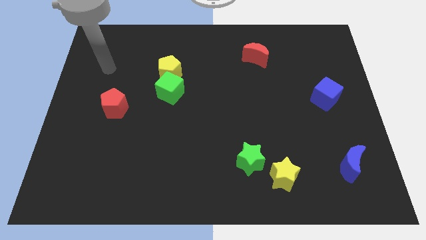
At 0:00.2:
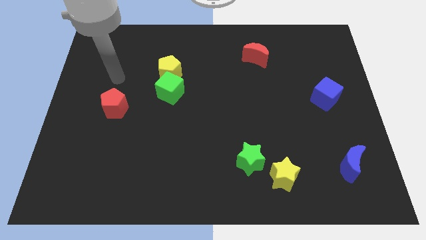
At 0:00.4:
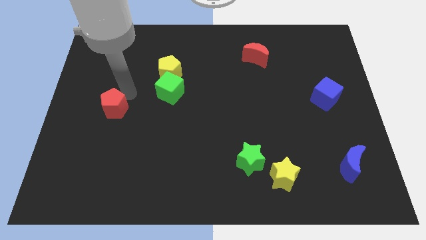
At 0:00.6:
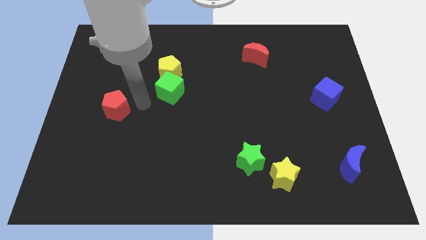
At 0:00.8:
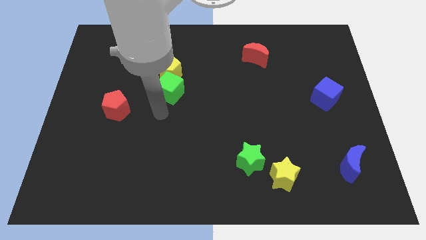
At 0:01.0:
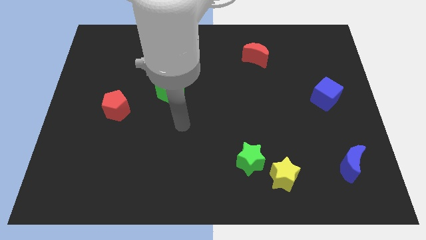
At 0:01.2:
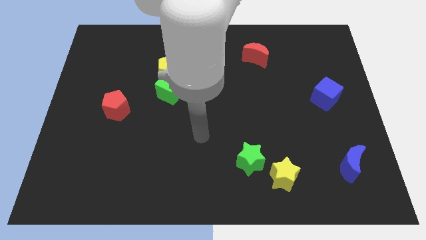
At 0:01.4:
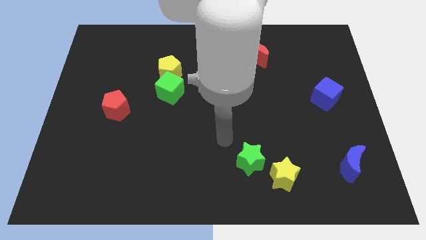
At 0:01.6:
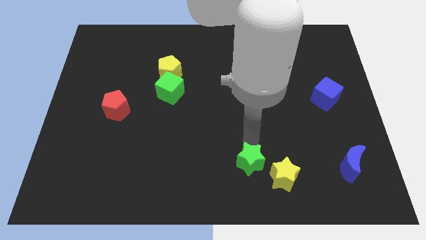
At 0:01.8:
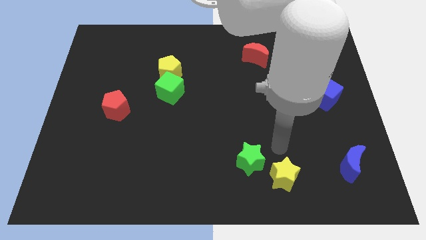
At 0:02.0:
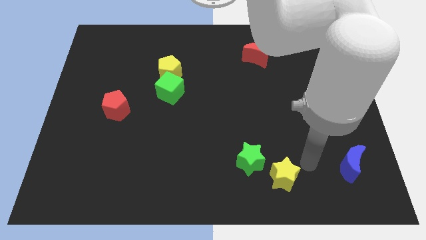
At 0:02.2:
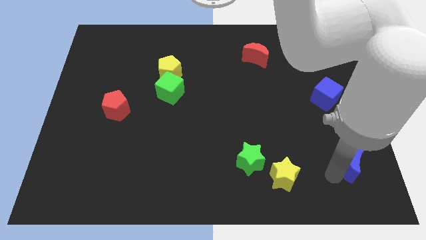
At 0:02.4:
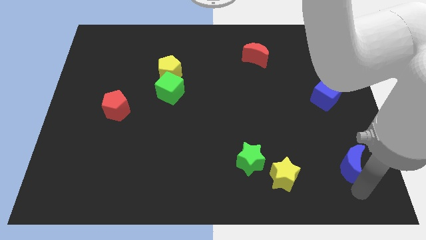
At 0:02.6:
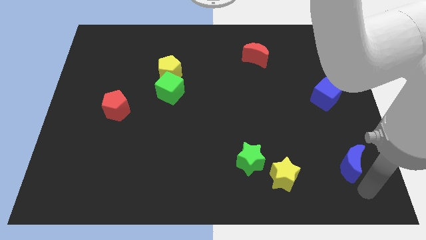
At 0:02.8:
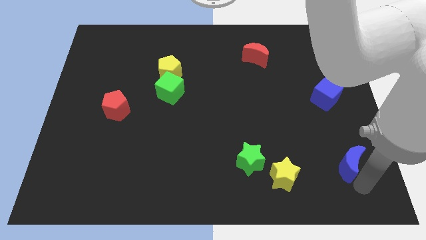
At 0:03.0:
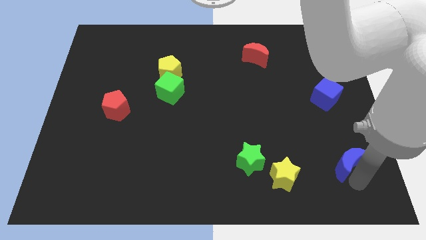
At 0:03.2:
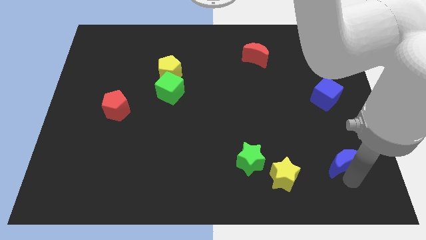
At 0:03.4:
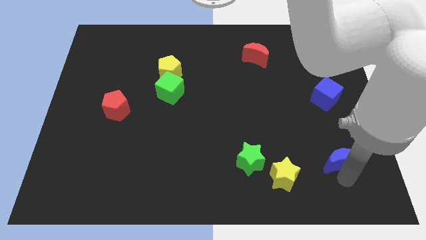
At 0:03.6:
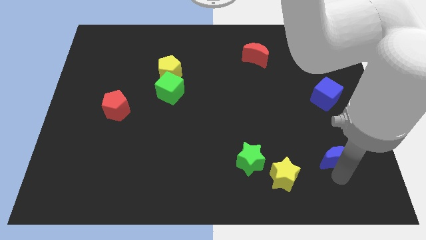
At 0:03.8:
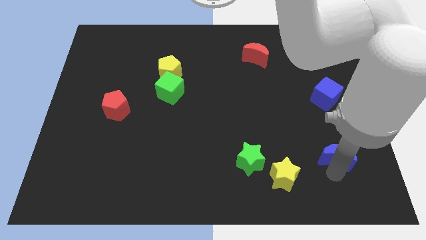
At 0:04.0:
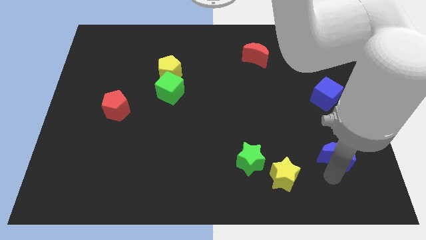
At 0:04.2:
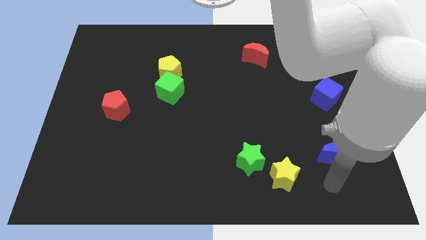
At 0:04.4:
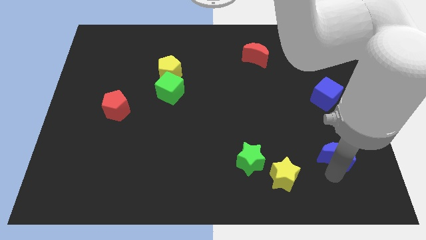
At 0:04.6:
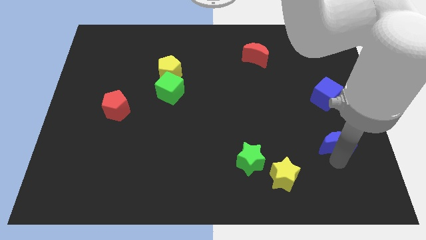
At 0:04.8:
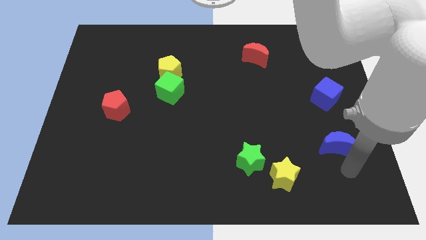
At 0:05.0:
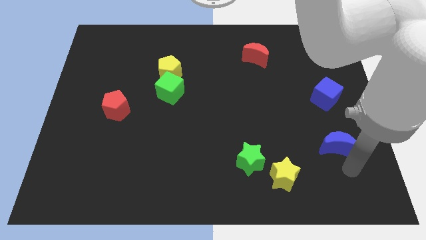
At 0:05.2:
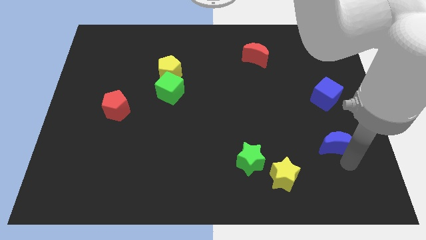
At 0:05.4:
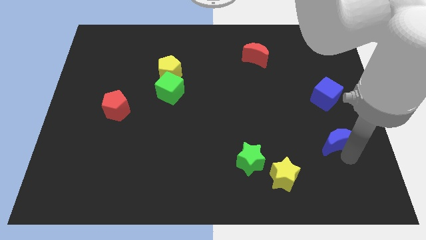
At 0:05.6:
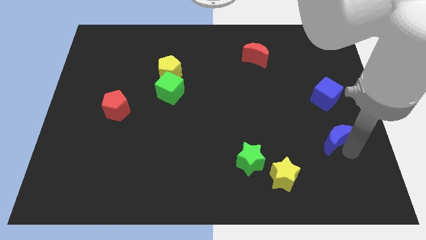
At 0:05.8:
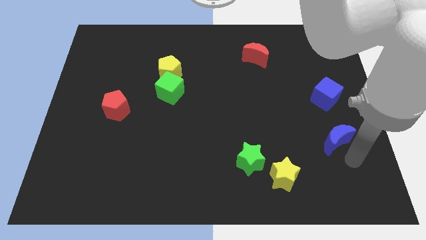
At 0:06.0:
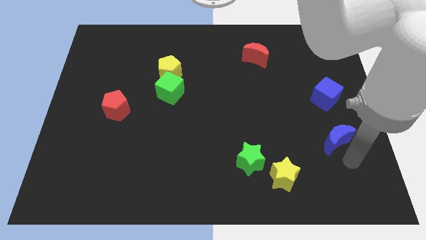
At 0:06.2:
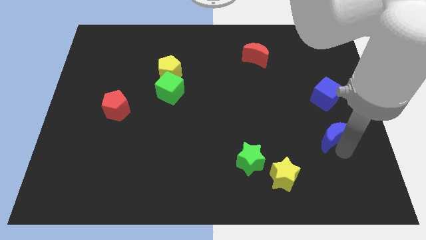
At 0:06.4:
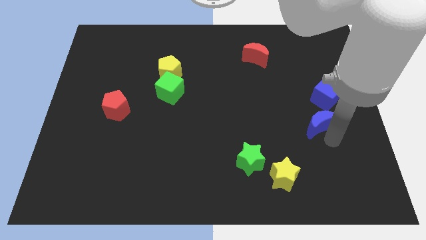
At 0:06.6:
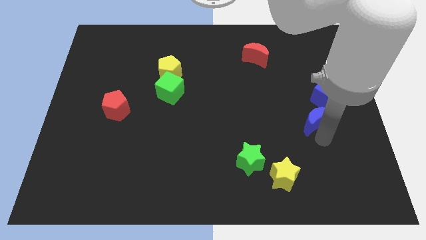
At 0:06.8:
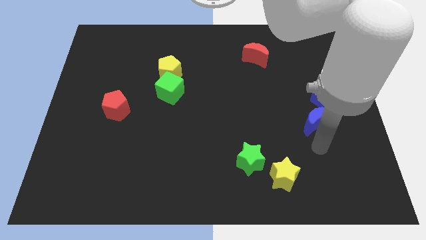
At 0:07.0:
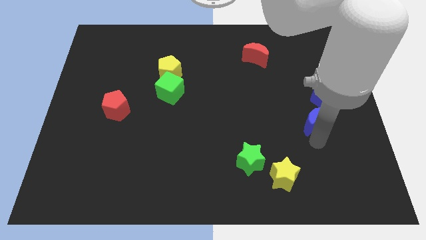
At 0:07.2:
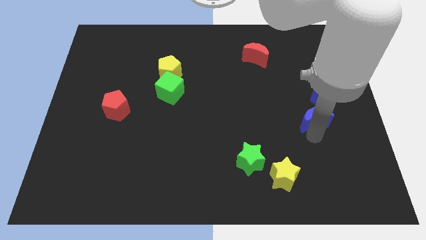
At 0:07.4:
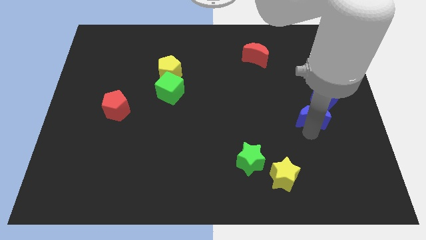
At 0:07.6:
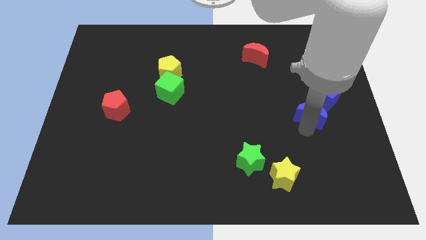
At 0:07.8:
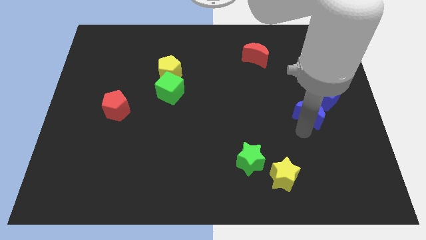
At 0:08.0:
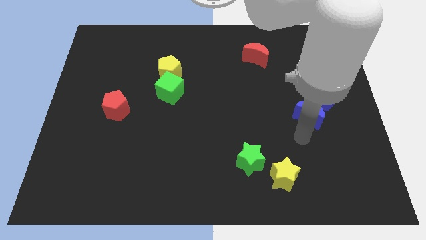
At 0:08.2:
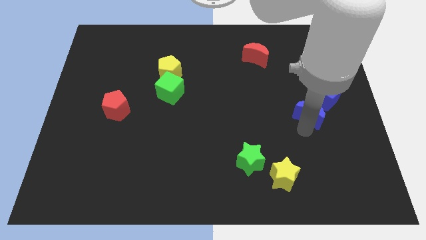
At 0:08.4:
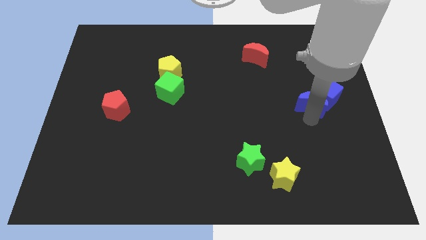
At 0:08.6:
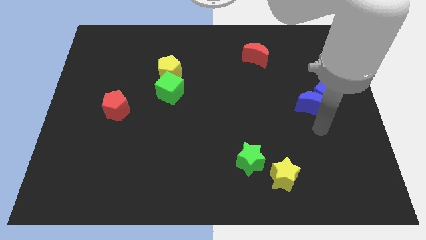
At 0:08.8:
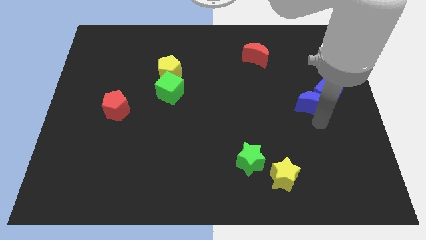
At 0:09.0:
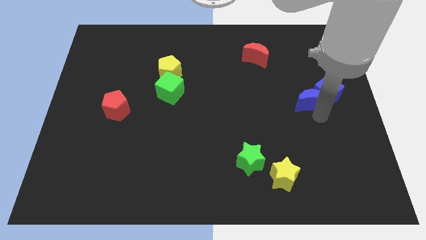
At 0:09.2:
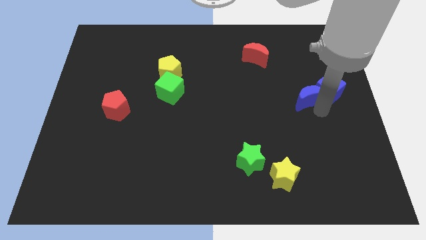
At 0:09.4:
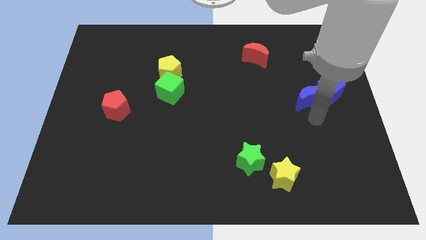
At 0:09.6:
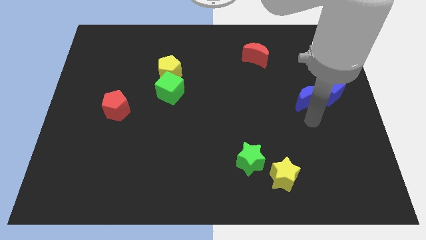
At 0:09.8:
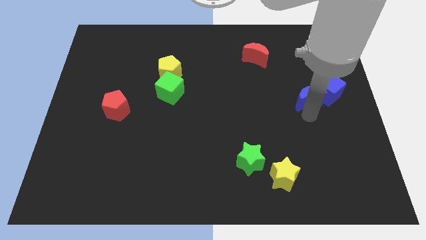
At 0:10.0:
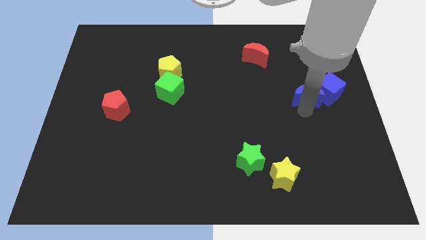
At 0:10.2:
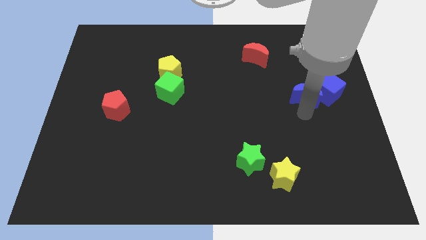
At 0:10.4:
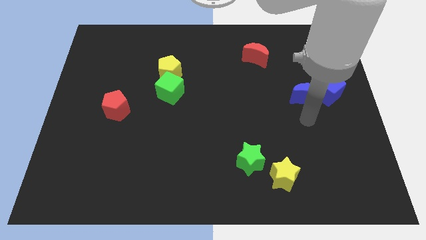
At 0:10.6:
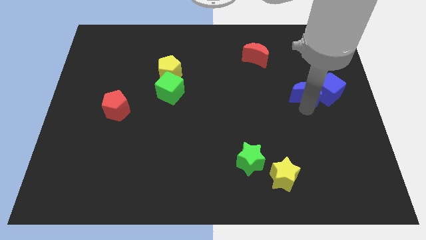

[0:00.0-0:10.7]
slide the blue moon diagonally up and to the left of the blue cube

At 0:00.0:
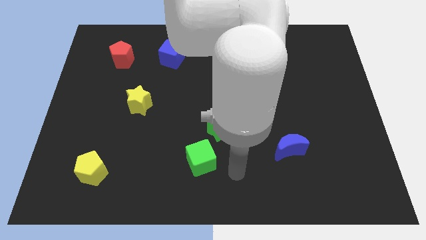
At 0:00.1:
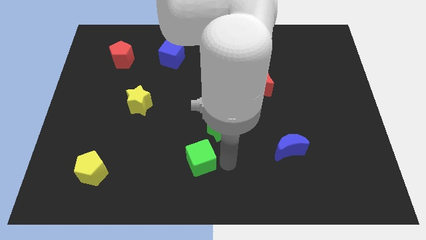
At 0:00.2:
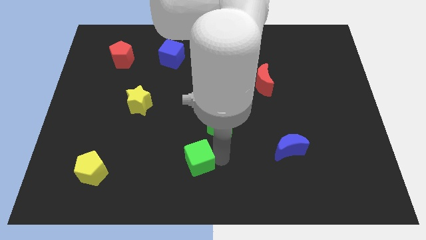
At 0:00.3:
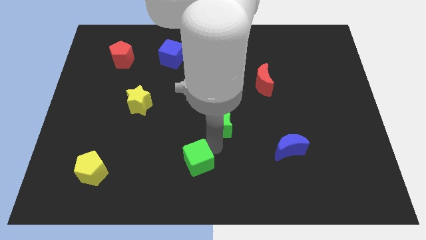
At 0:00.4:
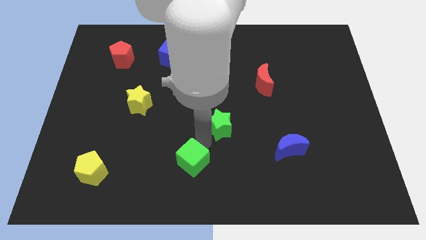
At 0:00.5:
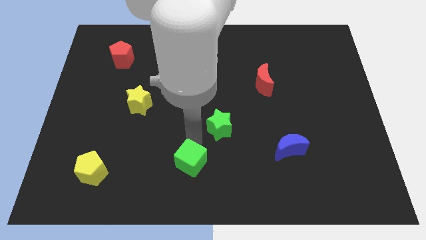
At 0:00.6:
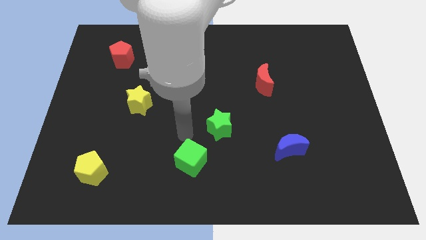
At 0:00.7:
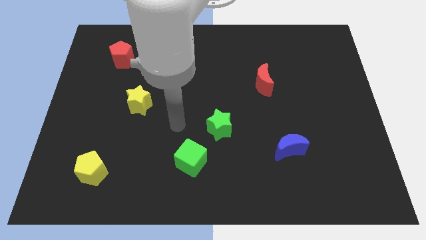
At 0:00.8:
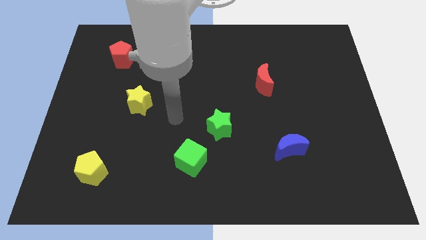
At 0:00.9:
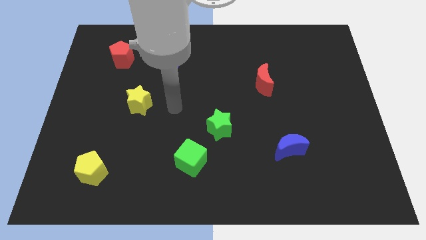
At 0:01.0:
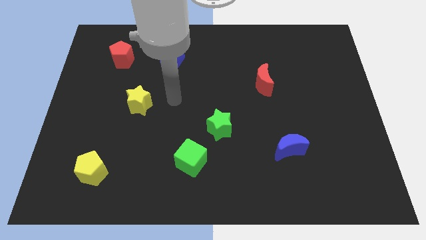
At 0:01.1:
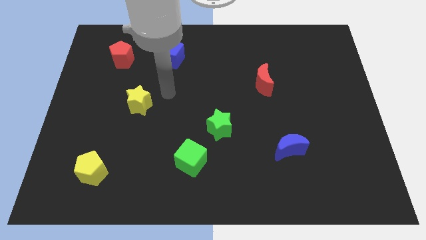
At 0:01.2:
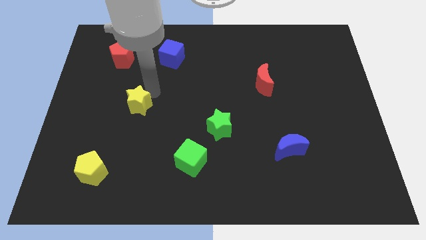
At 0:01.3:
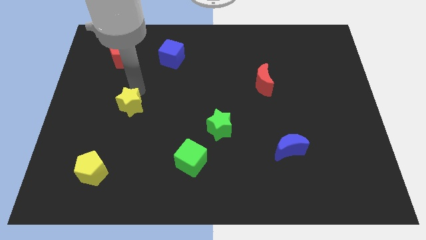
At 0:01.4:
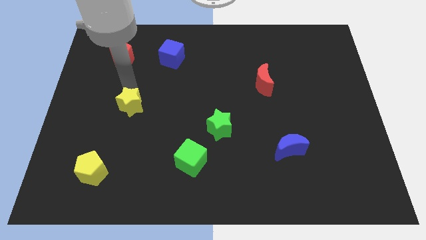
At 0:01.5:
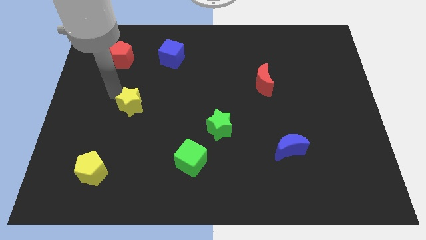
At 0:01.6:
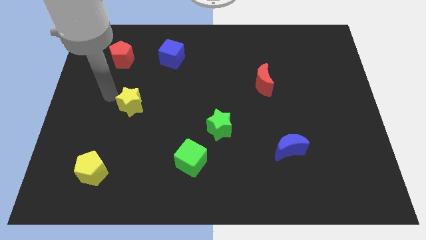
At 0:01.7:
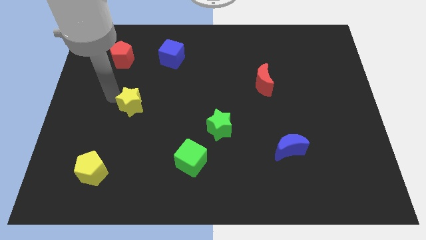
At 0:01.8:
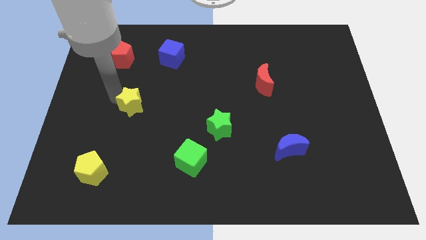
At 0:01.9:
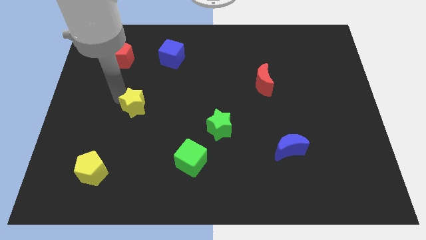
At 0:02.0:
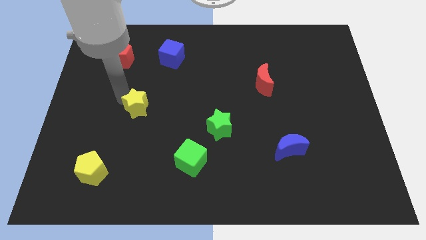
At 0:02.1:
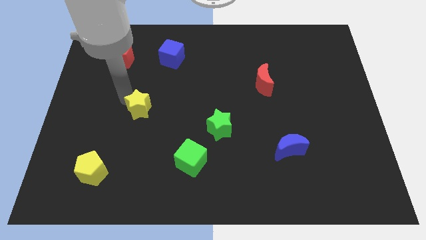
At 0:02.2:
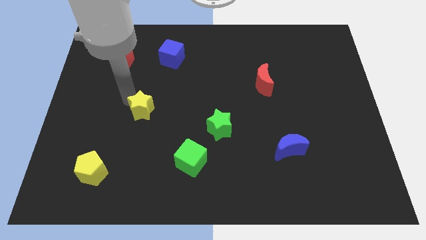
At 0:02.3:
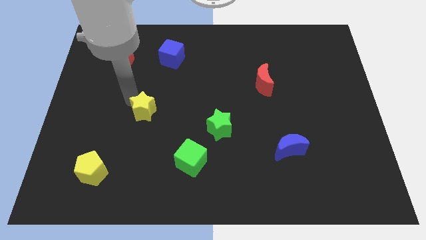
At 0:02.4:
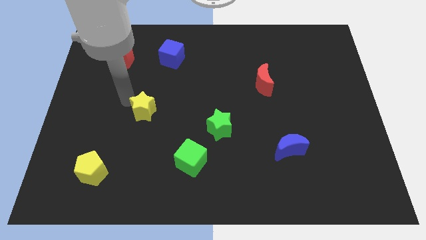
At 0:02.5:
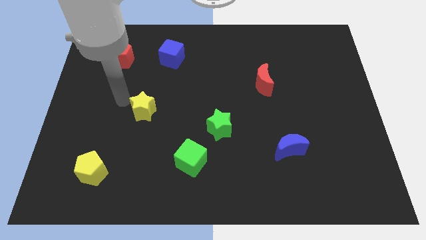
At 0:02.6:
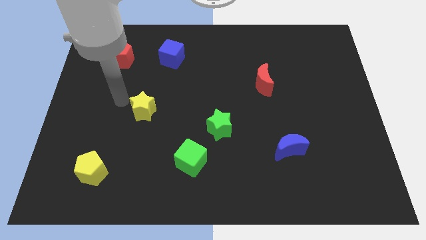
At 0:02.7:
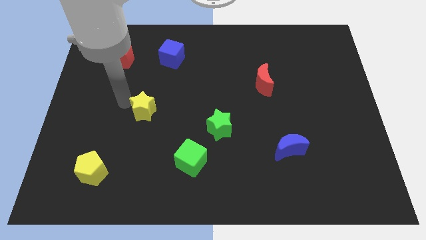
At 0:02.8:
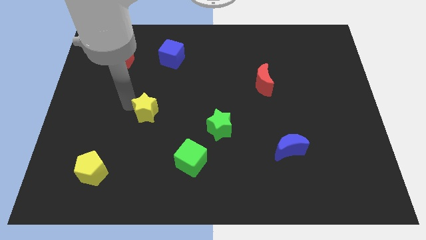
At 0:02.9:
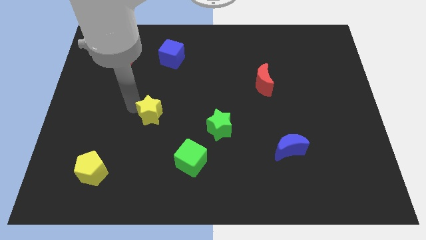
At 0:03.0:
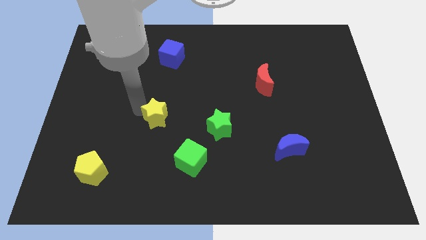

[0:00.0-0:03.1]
slide the yellow star left of the green star
